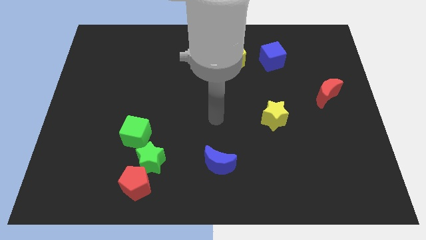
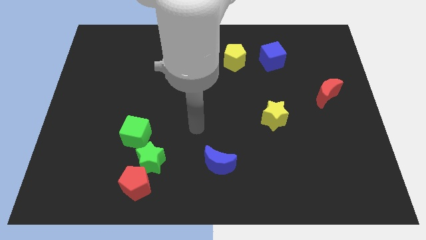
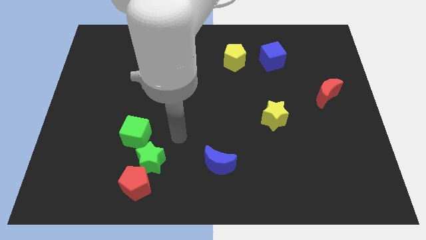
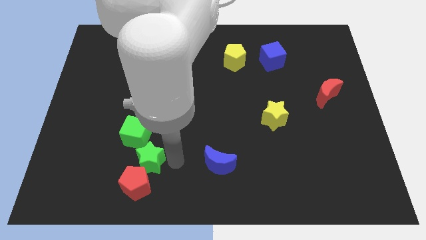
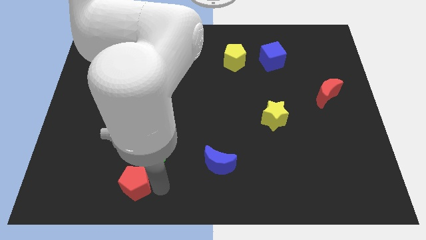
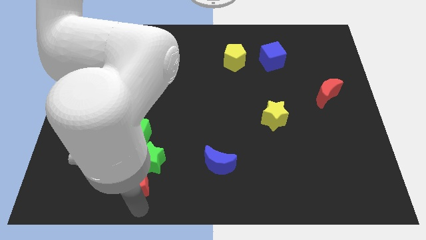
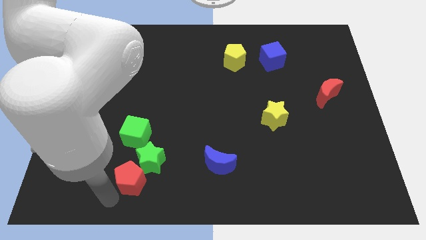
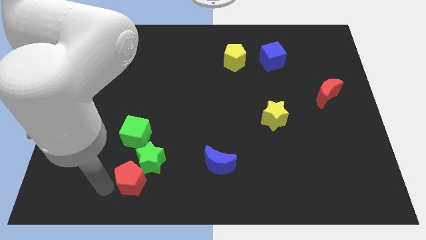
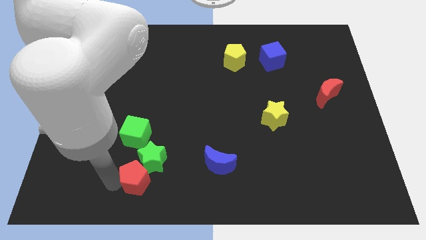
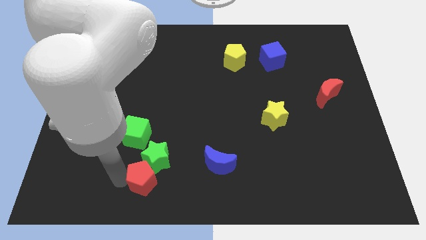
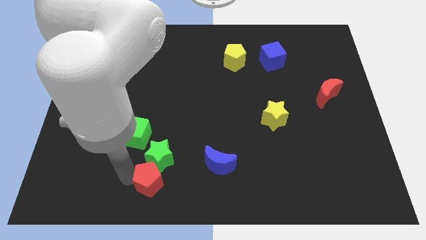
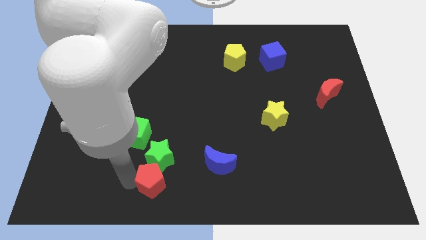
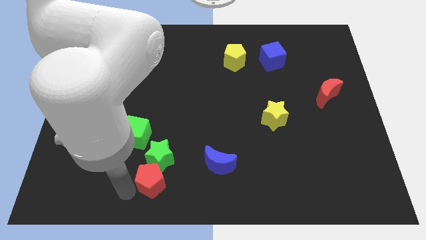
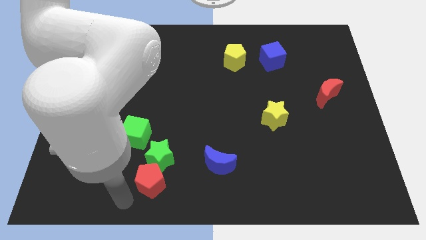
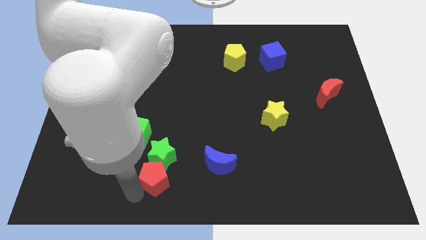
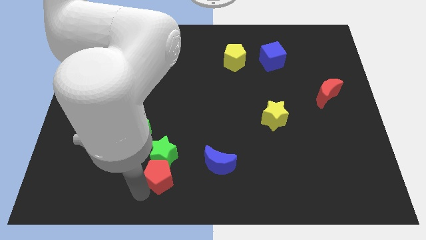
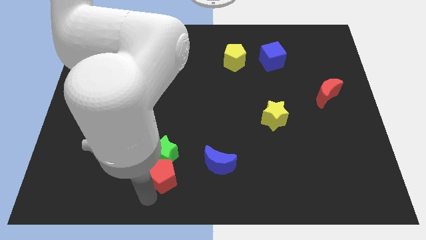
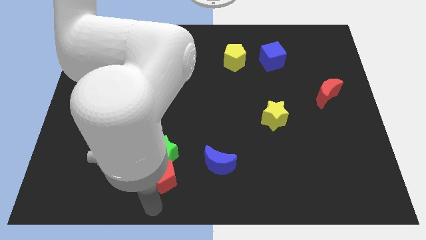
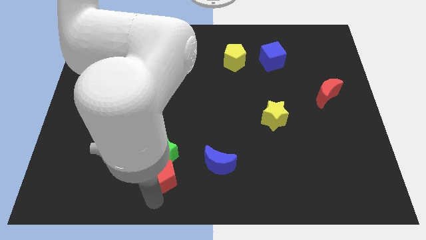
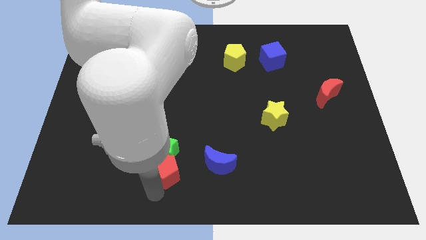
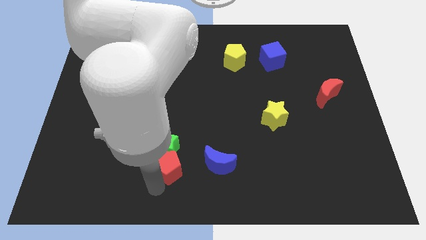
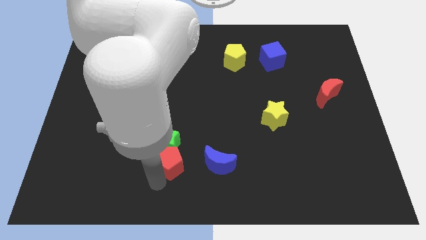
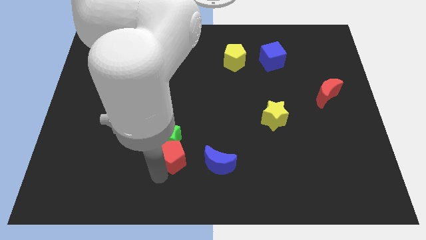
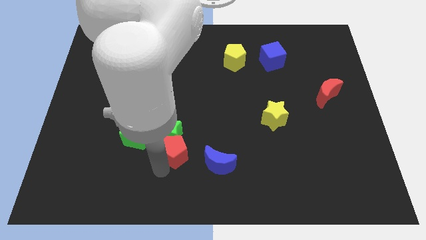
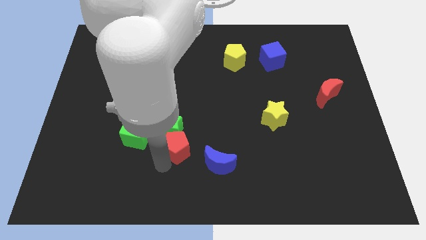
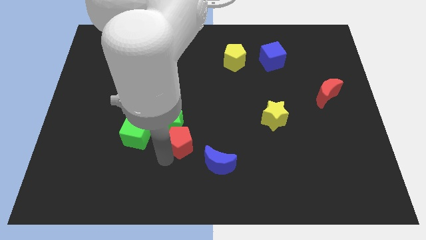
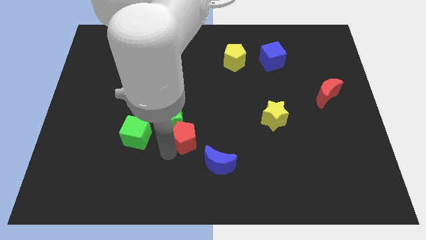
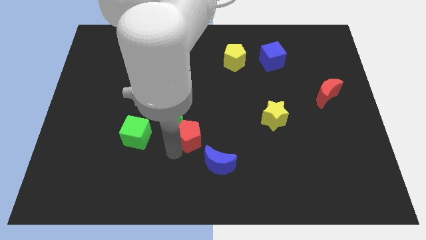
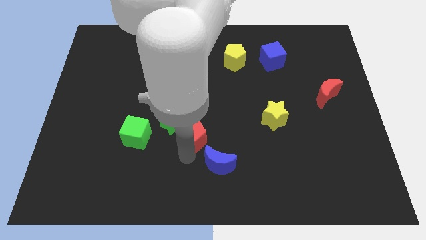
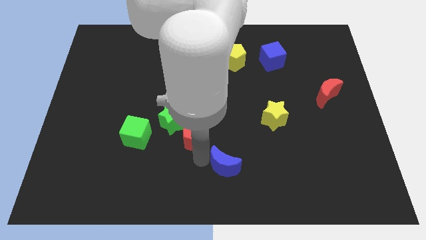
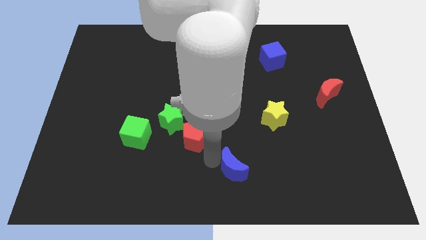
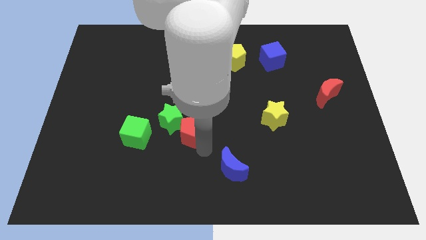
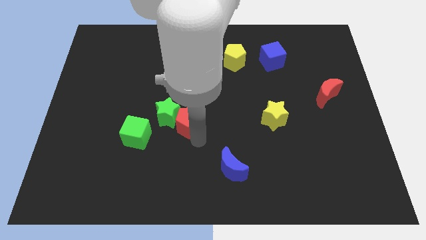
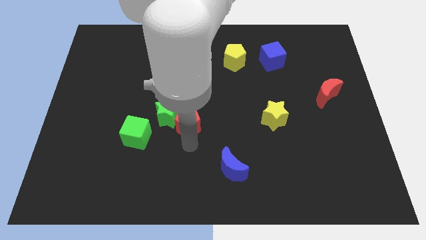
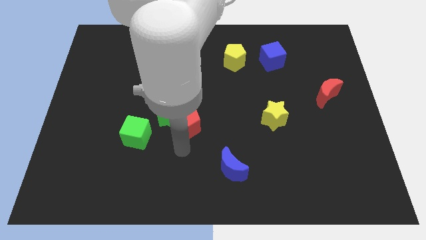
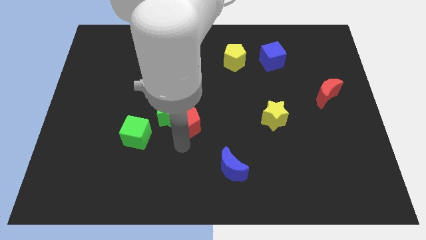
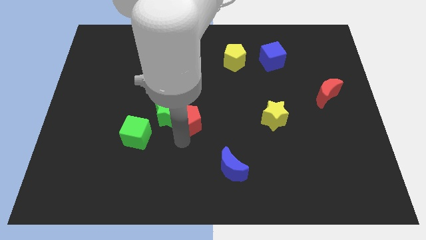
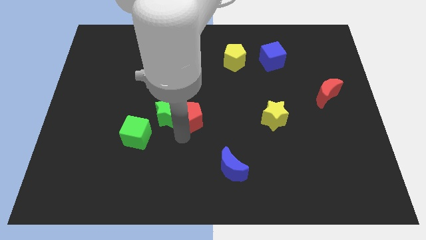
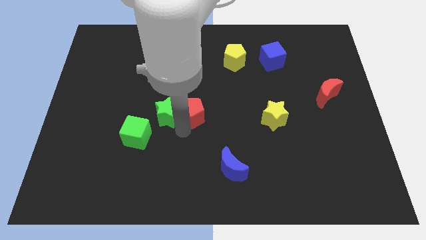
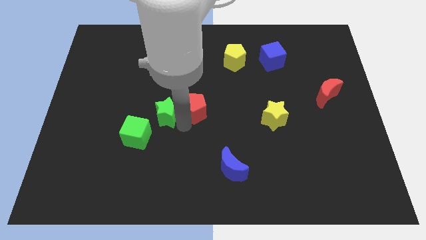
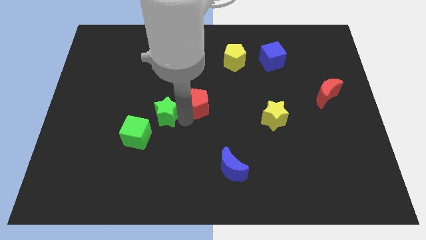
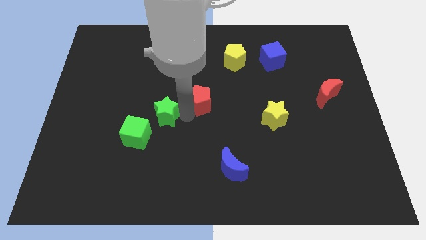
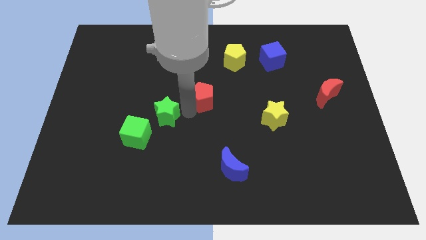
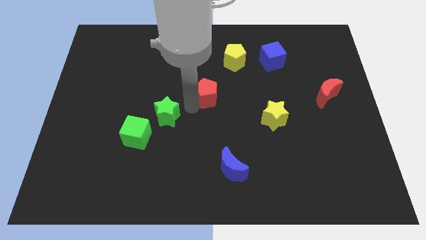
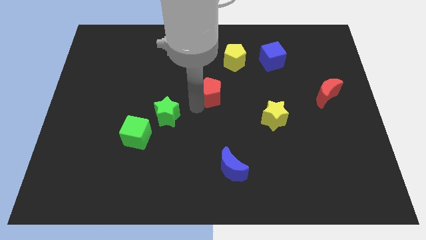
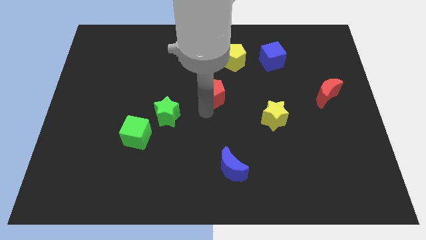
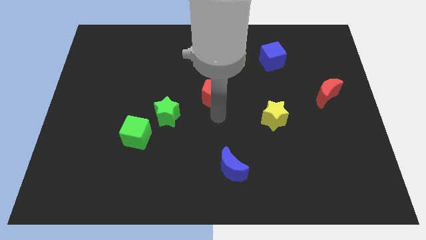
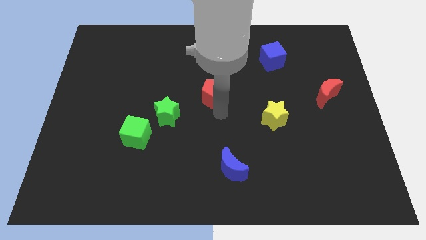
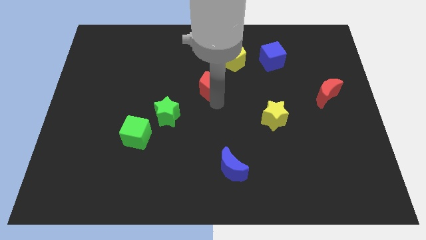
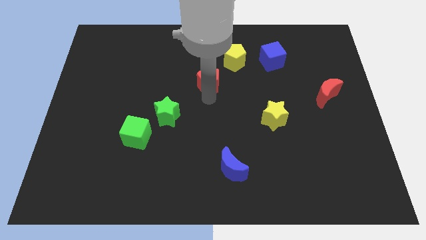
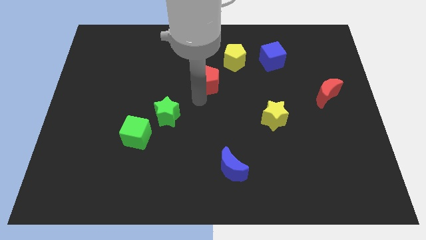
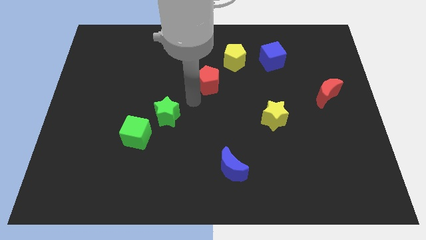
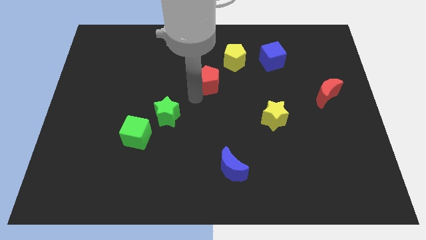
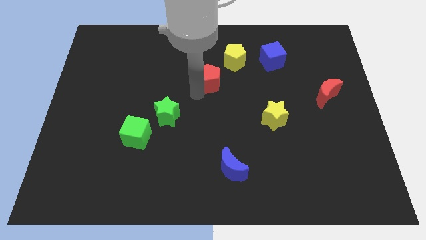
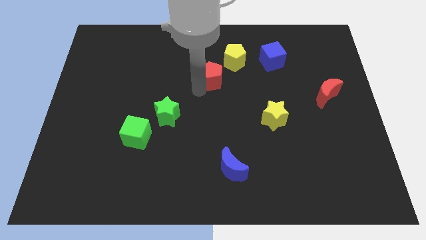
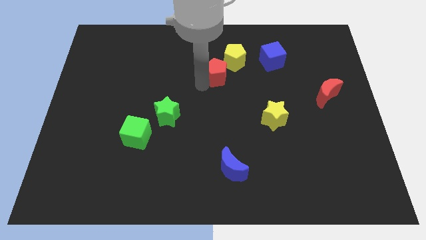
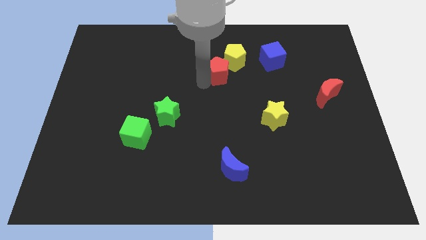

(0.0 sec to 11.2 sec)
slide the red pentagon close to the yellow pentagon

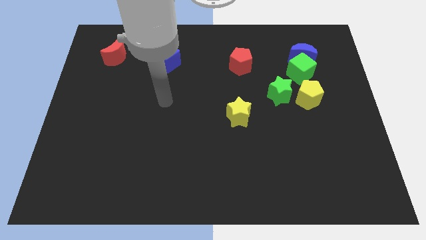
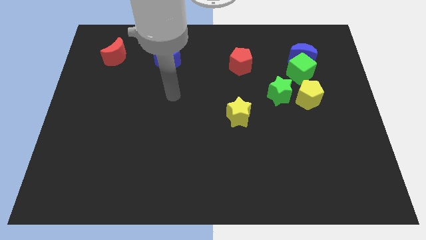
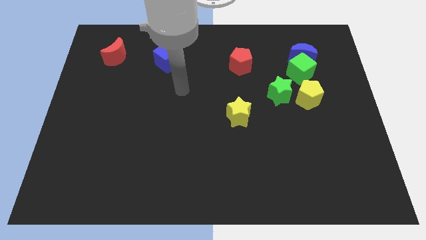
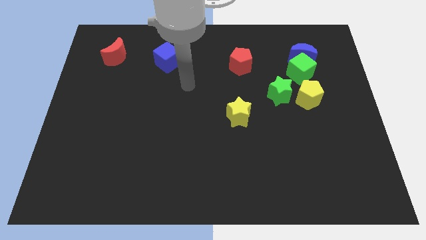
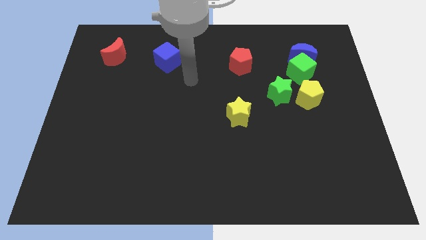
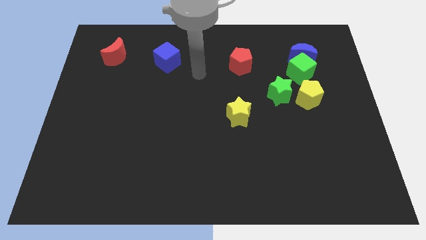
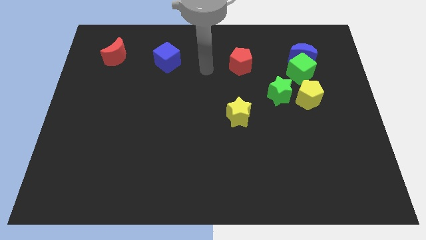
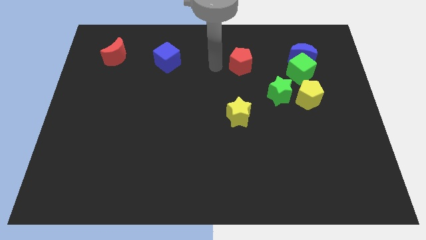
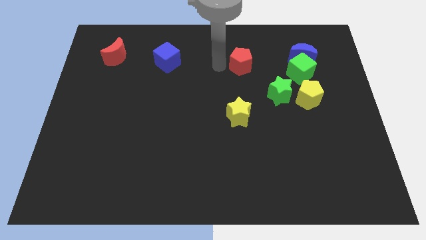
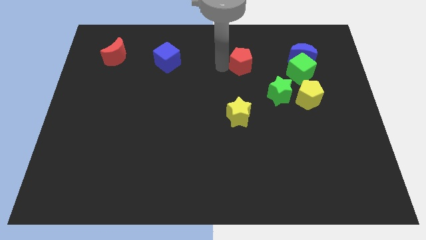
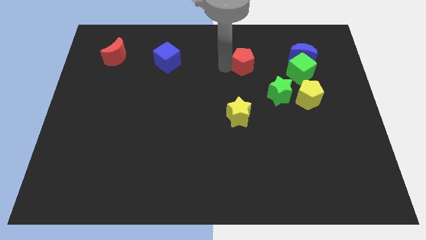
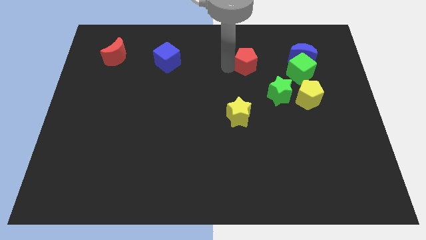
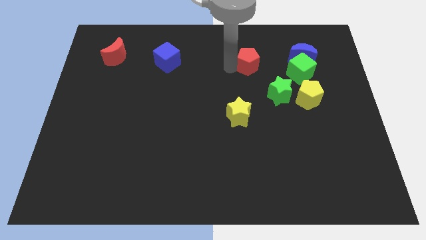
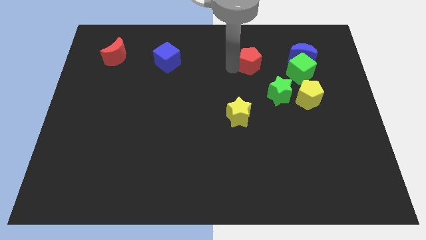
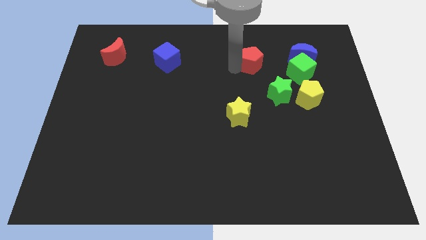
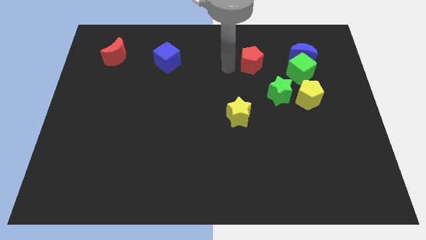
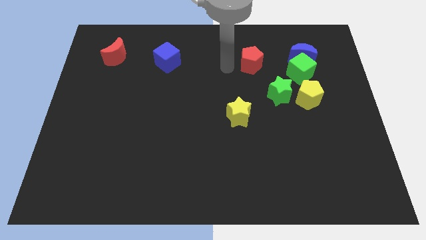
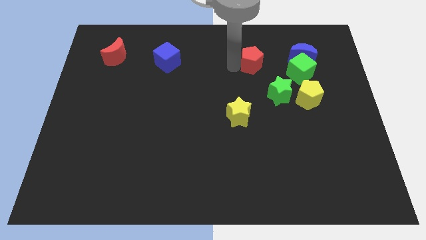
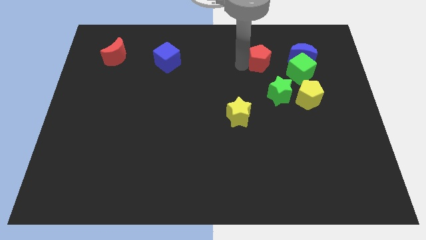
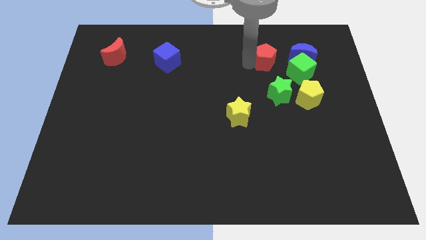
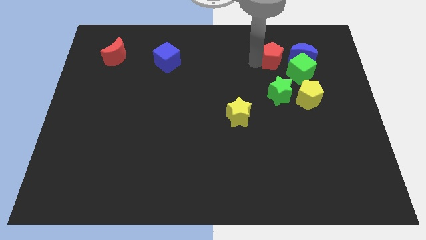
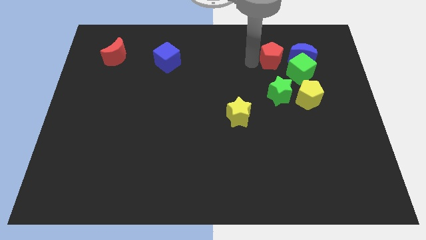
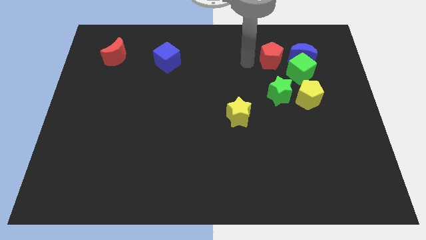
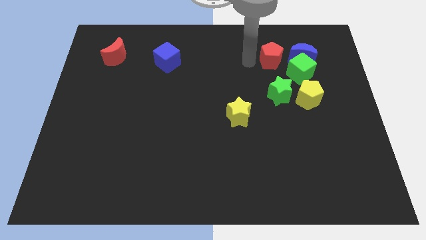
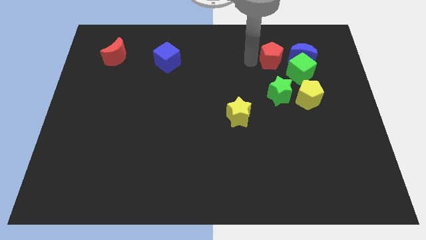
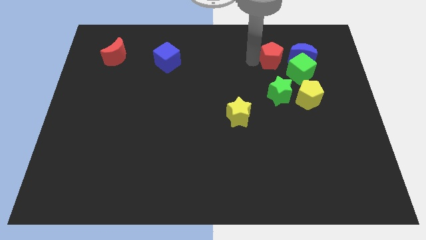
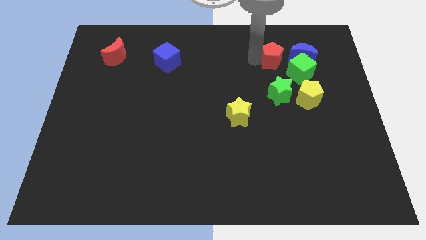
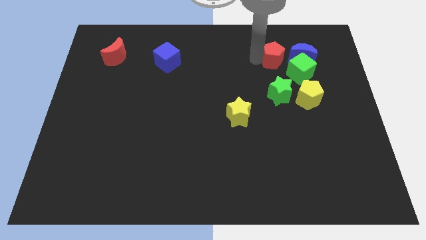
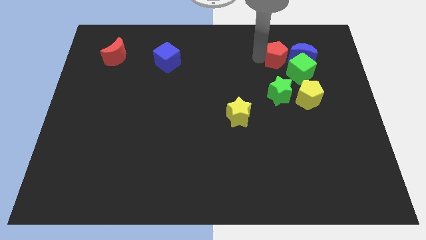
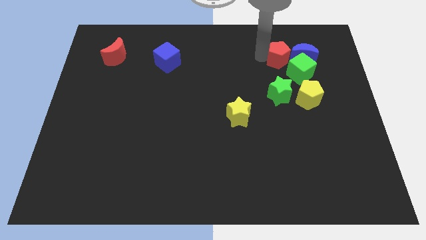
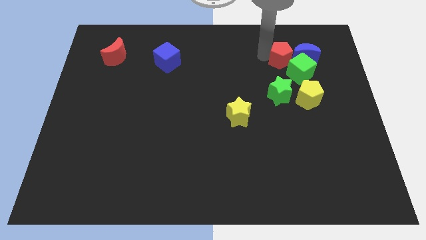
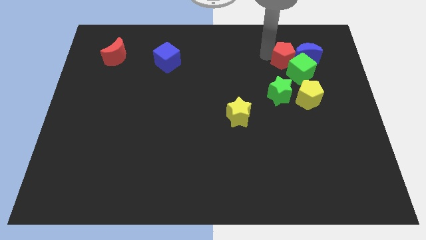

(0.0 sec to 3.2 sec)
push the red pentagon towards the blue moon
